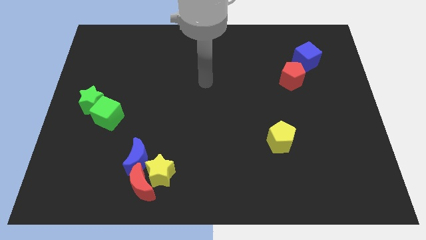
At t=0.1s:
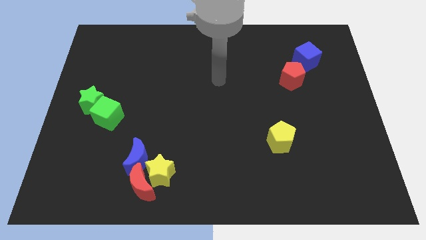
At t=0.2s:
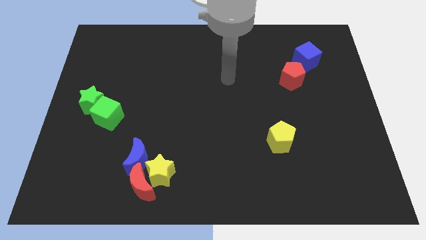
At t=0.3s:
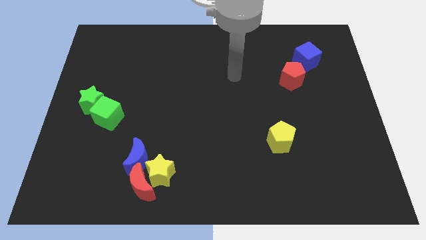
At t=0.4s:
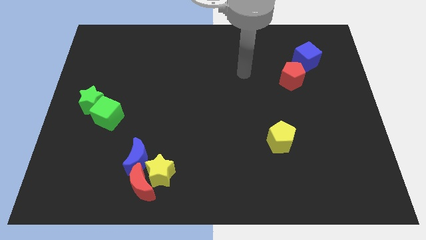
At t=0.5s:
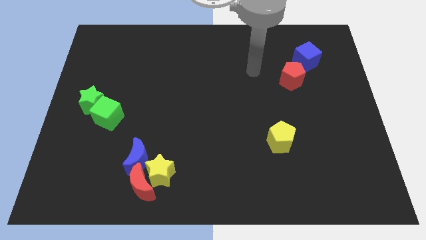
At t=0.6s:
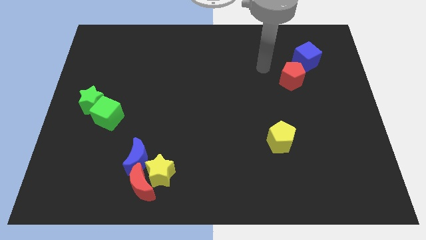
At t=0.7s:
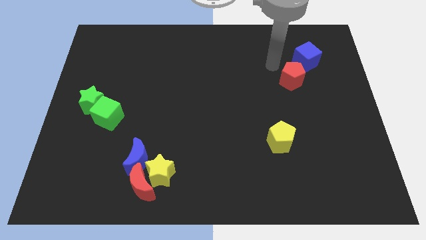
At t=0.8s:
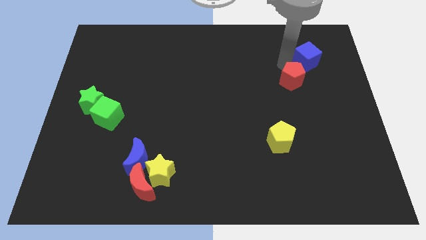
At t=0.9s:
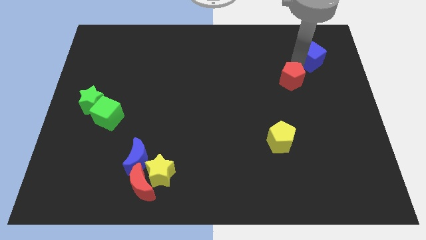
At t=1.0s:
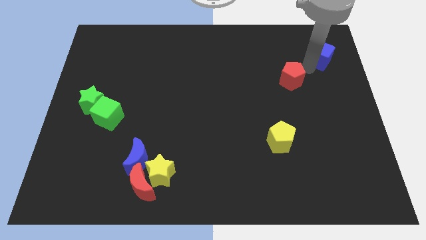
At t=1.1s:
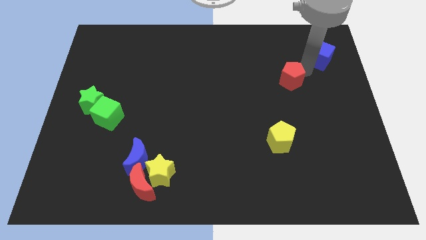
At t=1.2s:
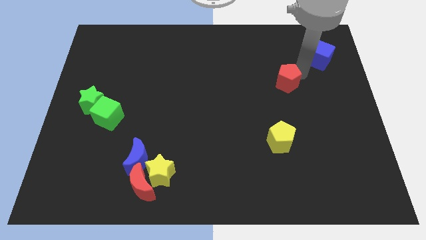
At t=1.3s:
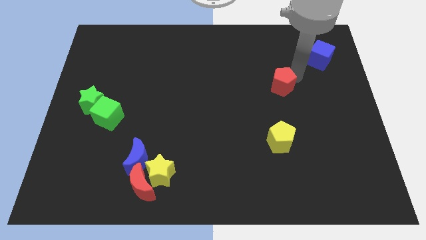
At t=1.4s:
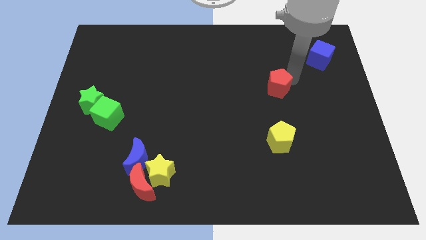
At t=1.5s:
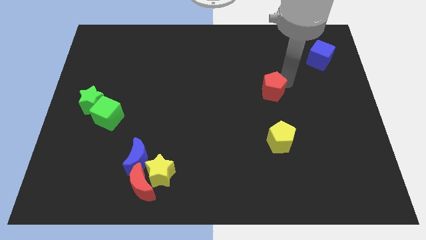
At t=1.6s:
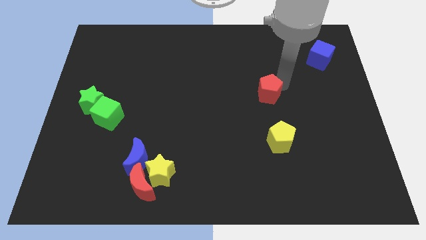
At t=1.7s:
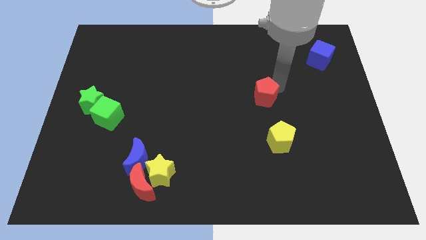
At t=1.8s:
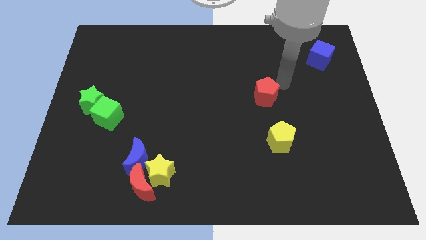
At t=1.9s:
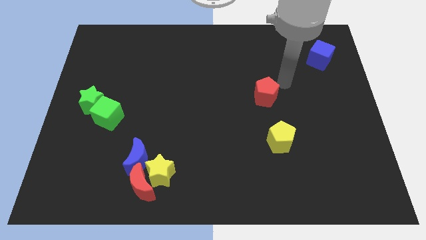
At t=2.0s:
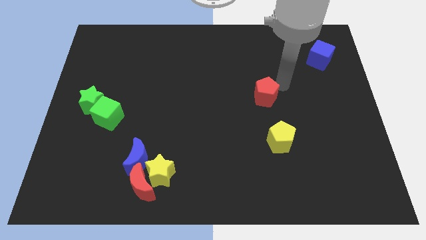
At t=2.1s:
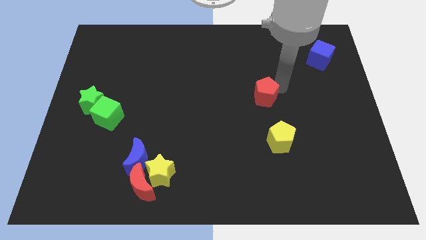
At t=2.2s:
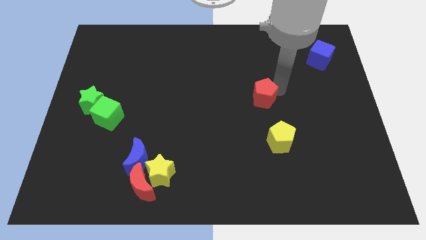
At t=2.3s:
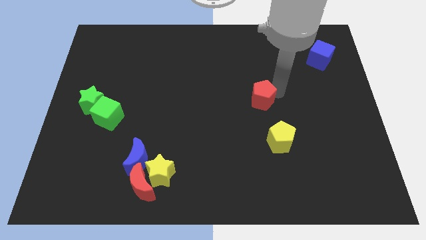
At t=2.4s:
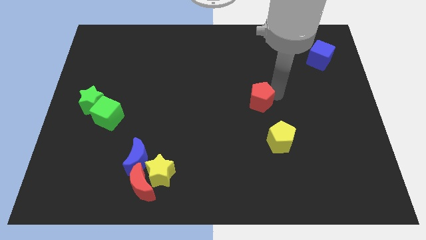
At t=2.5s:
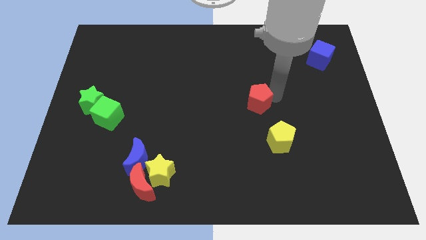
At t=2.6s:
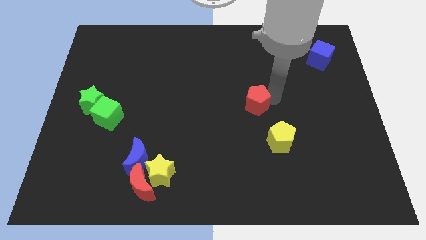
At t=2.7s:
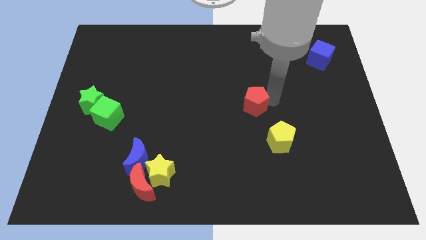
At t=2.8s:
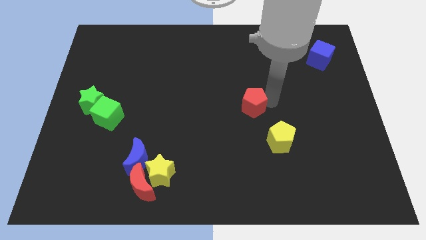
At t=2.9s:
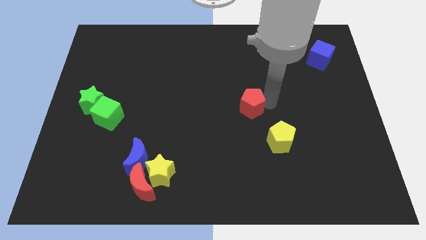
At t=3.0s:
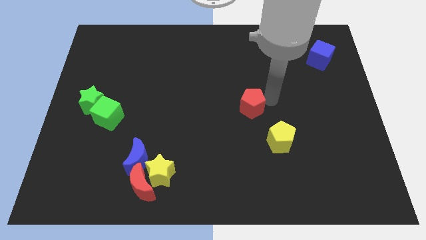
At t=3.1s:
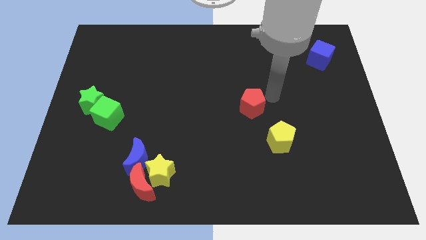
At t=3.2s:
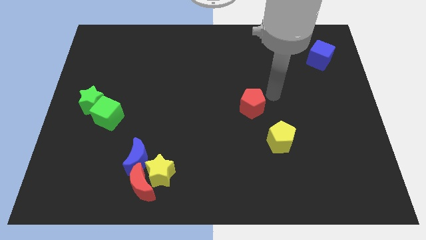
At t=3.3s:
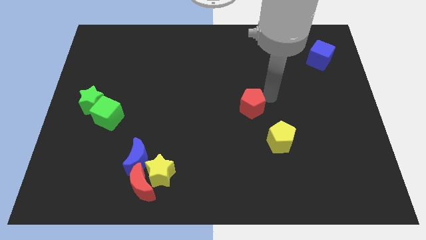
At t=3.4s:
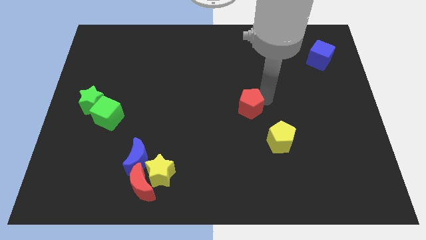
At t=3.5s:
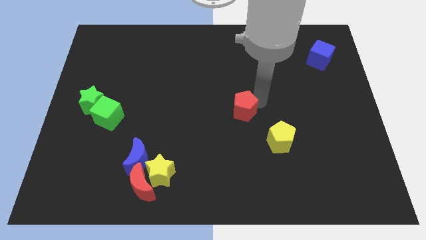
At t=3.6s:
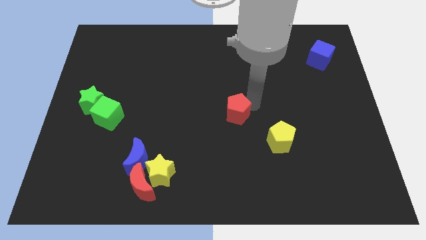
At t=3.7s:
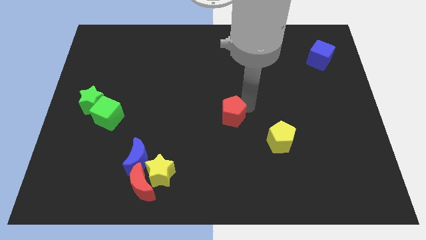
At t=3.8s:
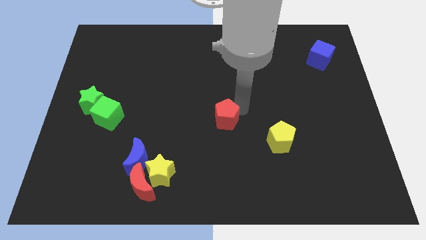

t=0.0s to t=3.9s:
slide the red pentagon down and left

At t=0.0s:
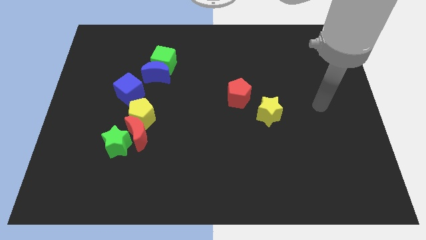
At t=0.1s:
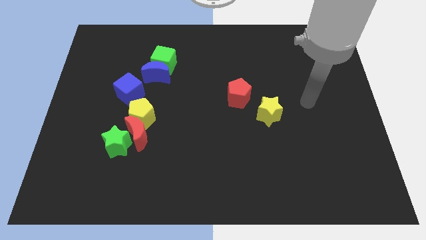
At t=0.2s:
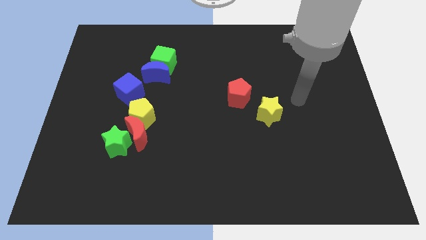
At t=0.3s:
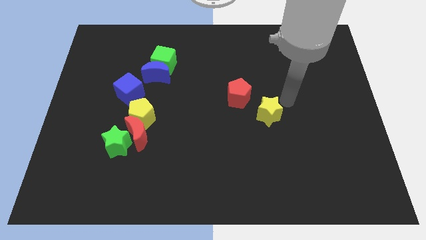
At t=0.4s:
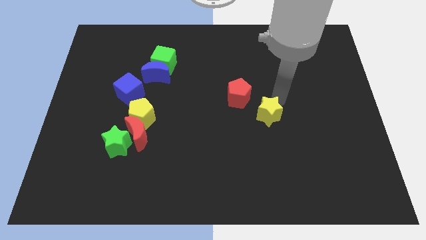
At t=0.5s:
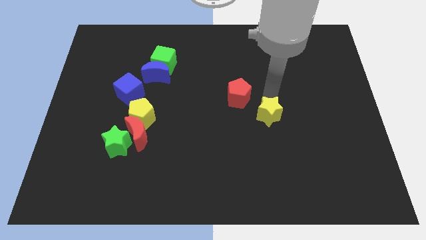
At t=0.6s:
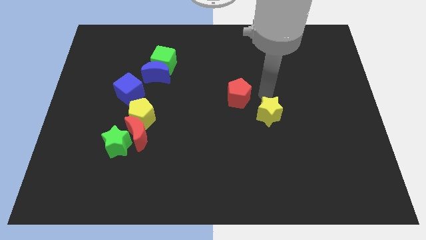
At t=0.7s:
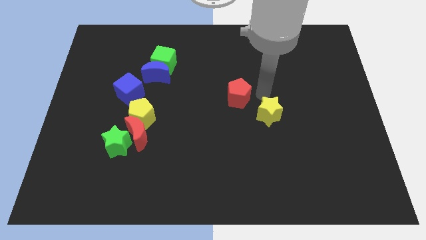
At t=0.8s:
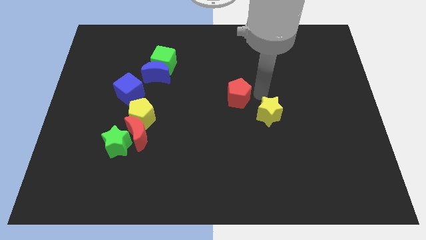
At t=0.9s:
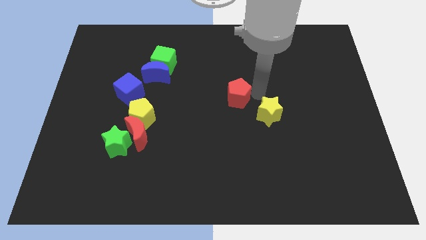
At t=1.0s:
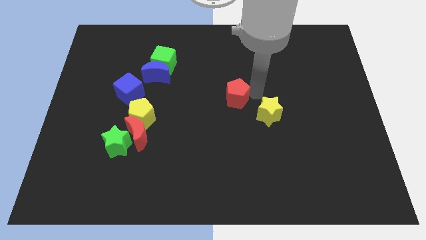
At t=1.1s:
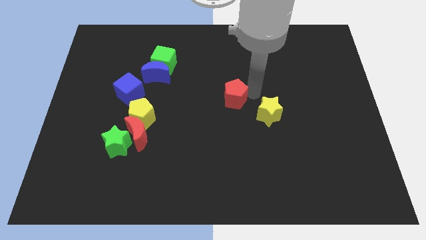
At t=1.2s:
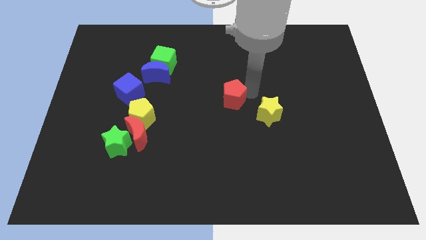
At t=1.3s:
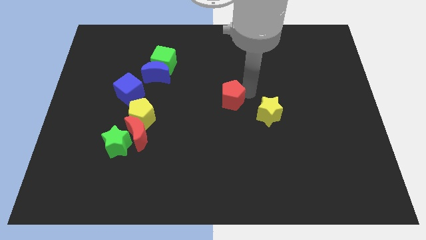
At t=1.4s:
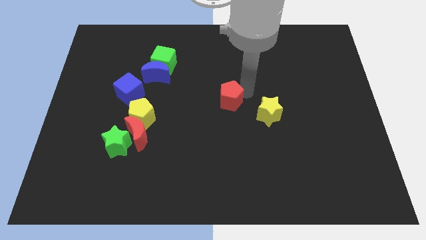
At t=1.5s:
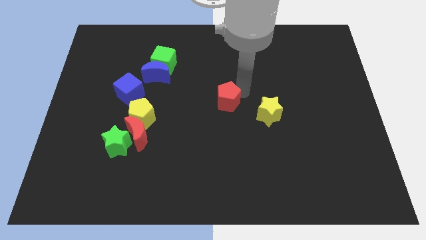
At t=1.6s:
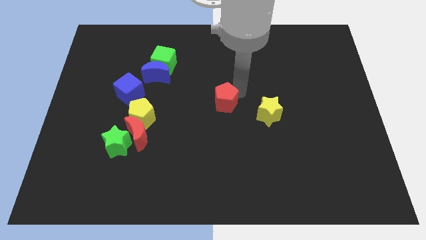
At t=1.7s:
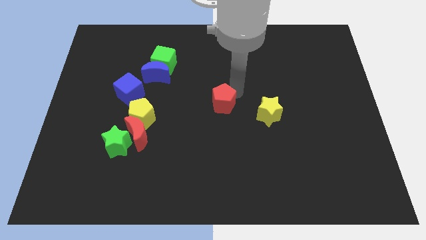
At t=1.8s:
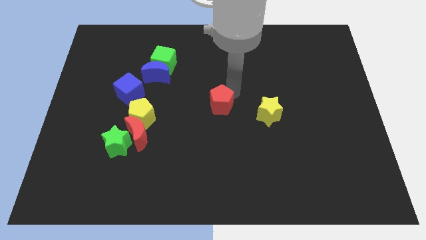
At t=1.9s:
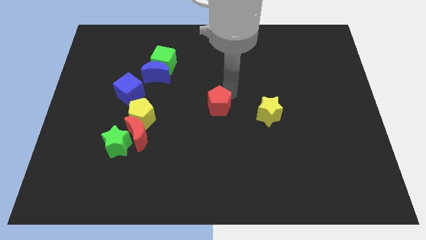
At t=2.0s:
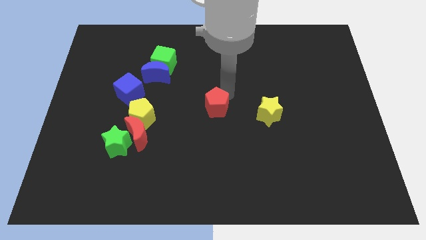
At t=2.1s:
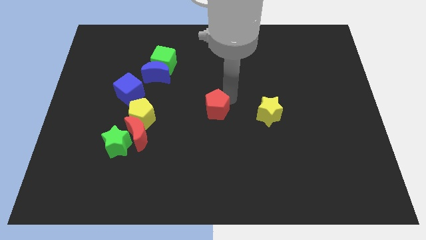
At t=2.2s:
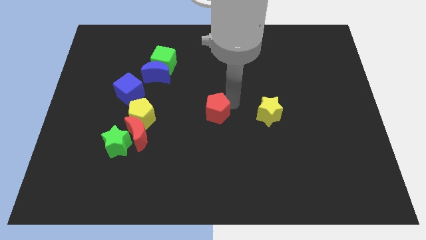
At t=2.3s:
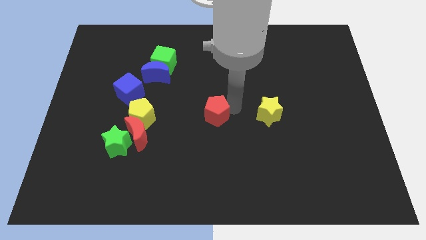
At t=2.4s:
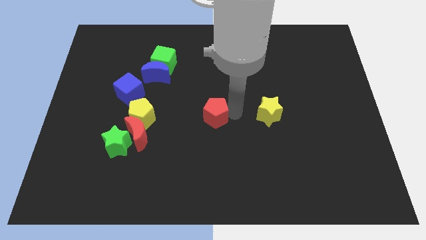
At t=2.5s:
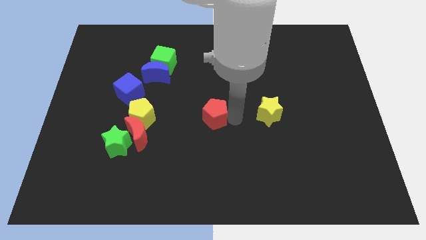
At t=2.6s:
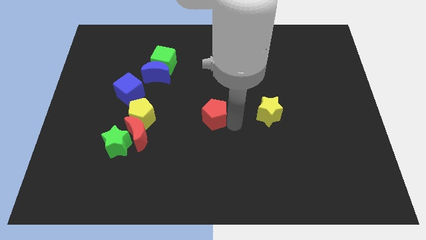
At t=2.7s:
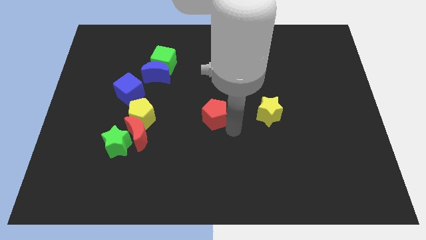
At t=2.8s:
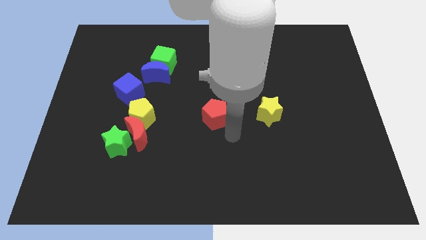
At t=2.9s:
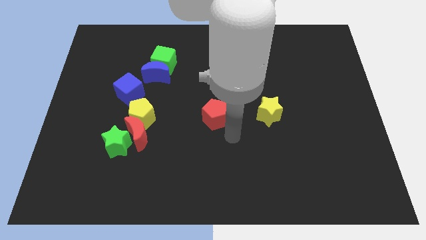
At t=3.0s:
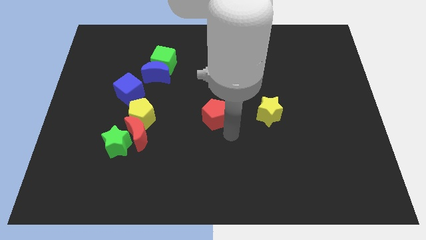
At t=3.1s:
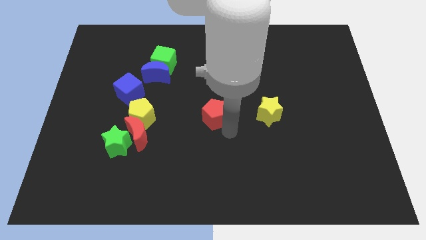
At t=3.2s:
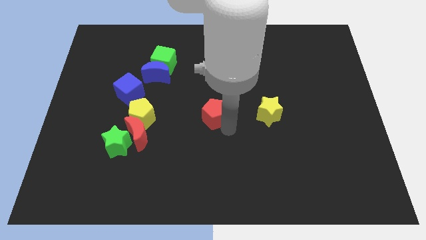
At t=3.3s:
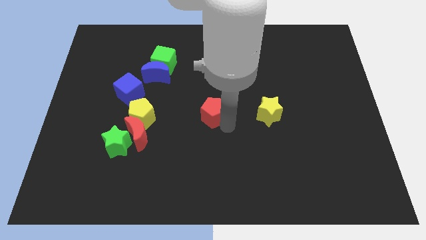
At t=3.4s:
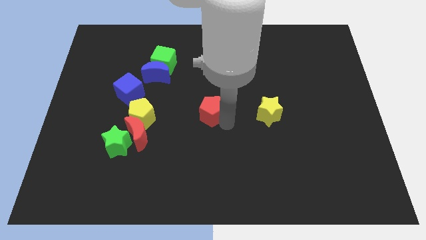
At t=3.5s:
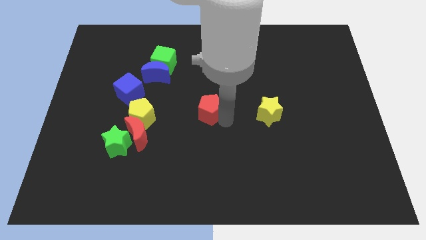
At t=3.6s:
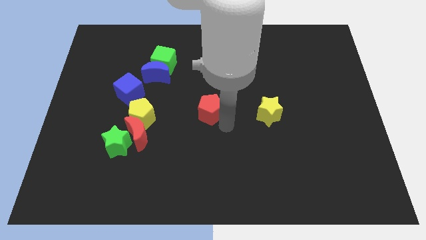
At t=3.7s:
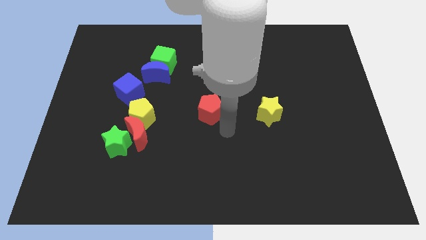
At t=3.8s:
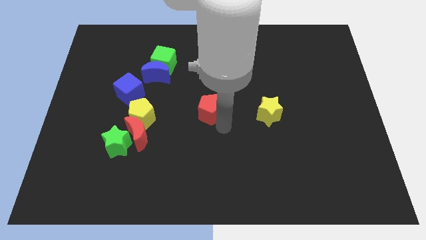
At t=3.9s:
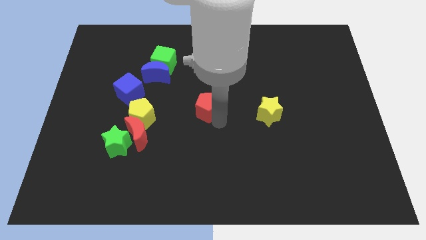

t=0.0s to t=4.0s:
slightly push the red pentagon to the left
